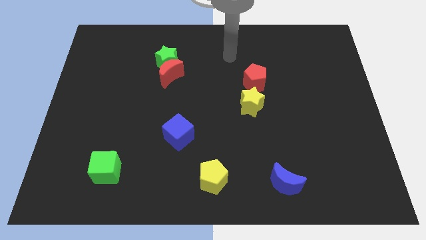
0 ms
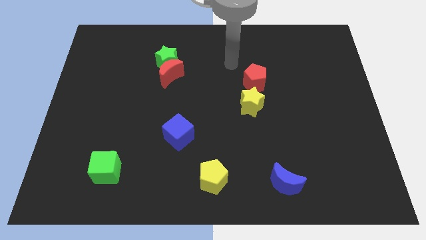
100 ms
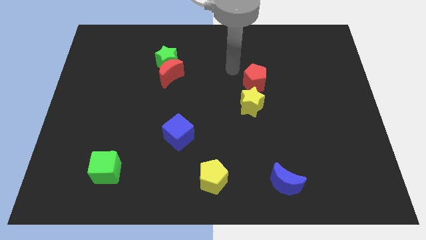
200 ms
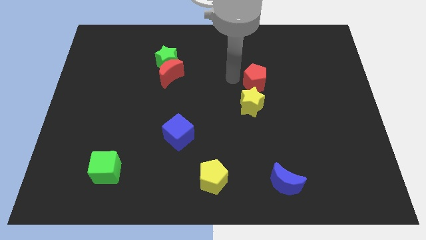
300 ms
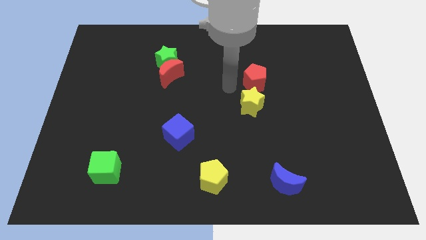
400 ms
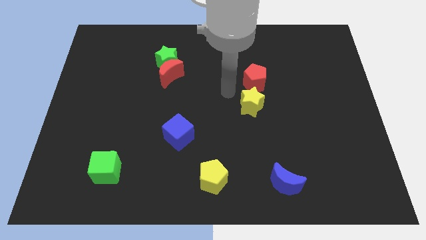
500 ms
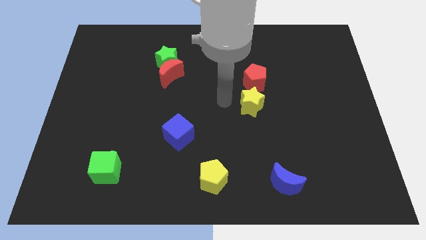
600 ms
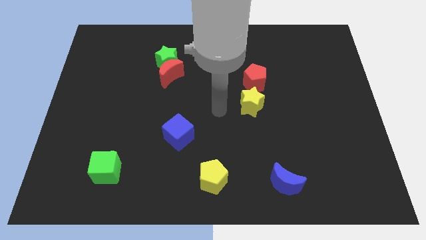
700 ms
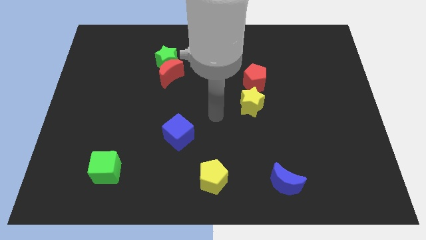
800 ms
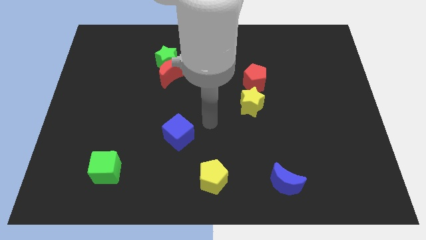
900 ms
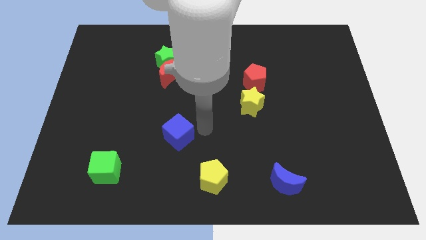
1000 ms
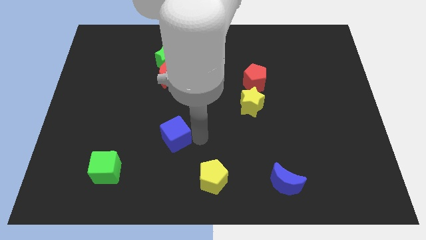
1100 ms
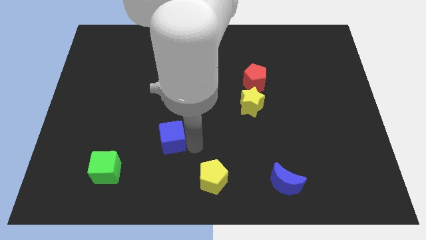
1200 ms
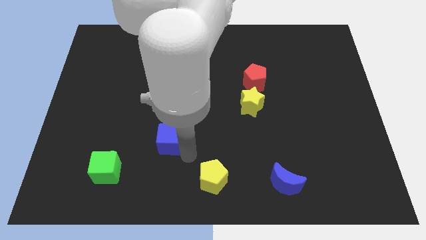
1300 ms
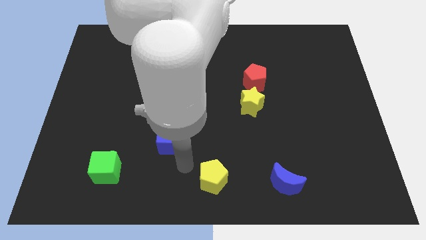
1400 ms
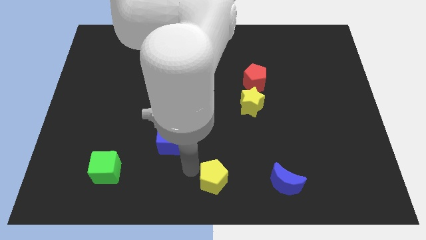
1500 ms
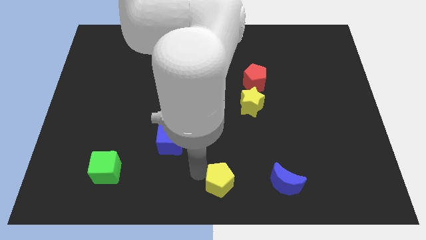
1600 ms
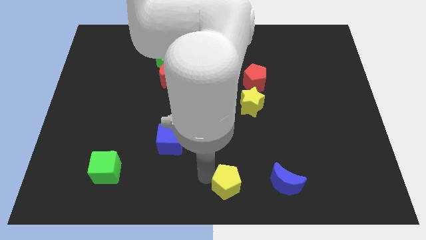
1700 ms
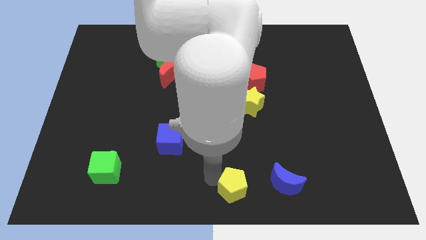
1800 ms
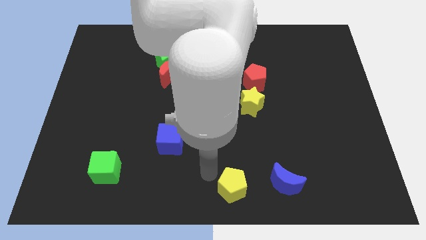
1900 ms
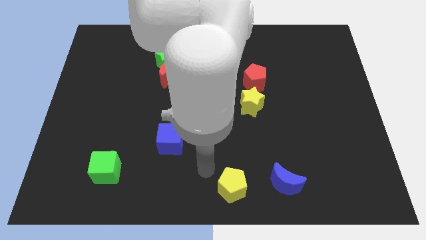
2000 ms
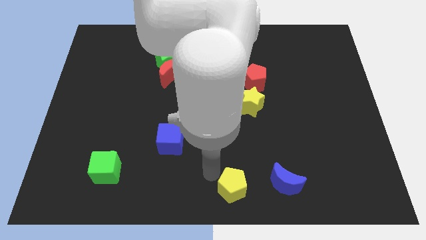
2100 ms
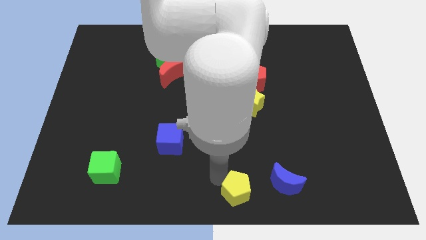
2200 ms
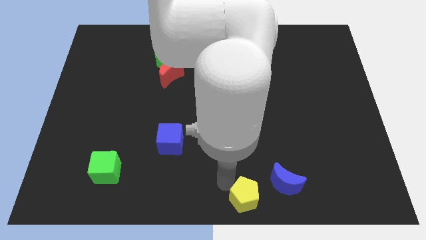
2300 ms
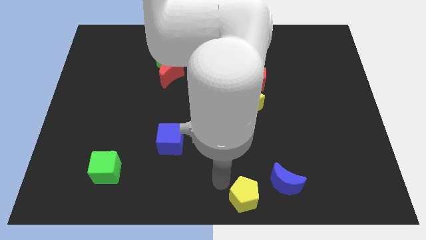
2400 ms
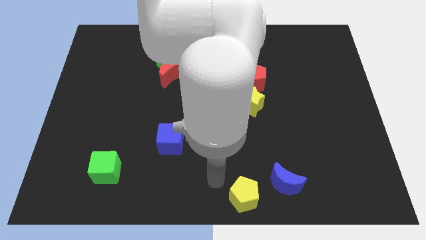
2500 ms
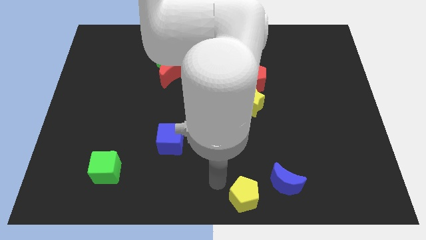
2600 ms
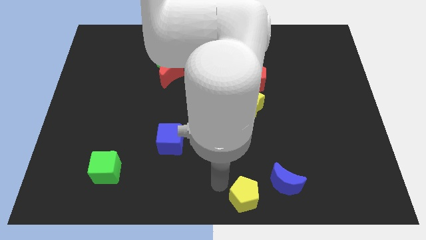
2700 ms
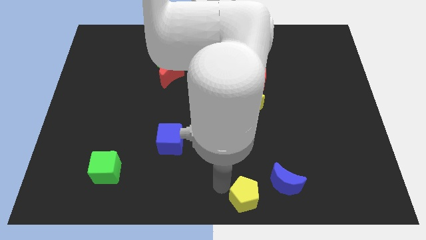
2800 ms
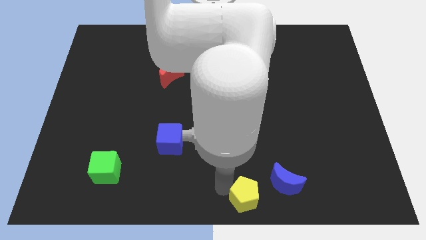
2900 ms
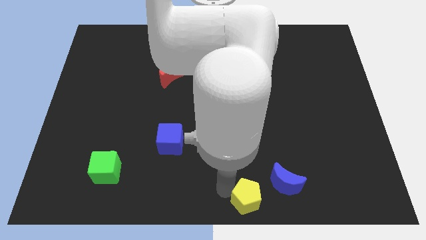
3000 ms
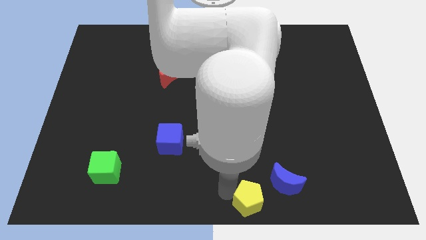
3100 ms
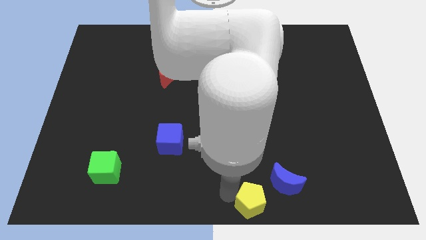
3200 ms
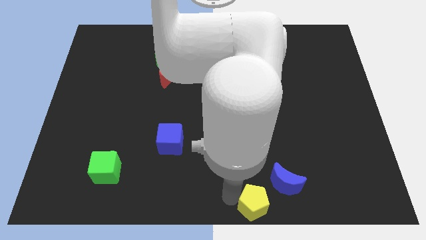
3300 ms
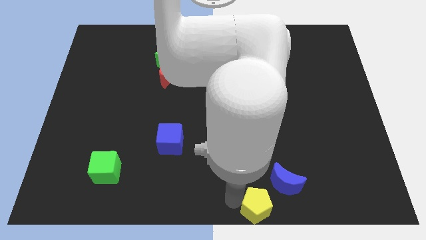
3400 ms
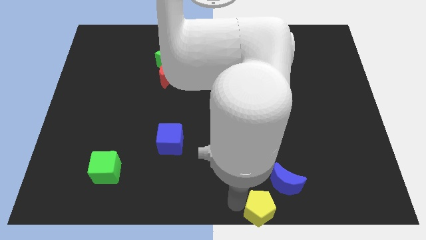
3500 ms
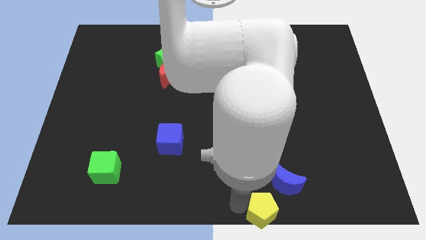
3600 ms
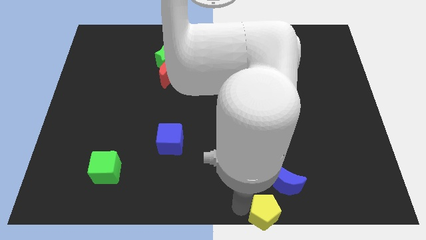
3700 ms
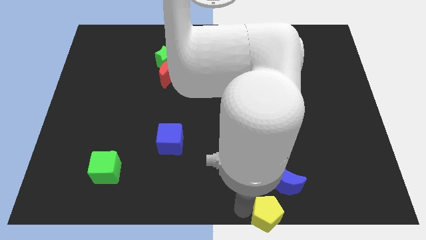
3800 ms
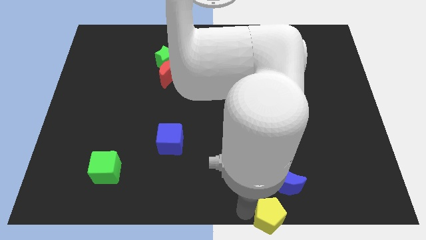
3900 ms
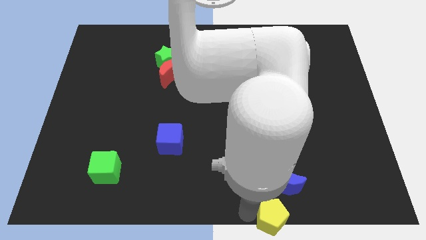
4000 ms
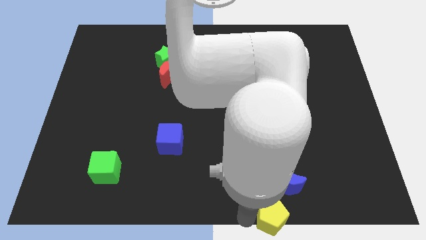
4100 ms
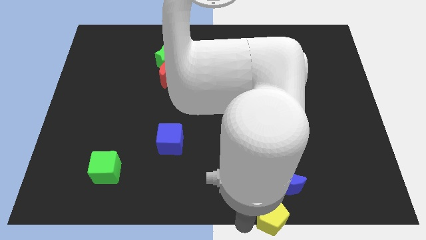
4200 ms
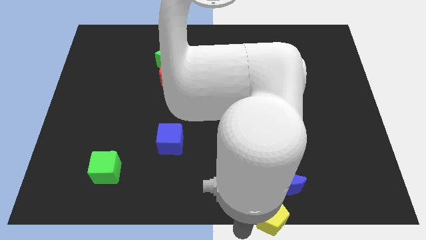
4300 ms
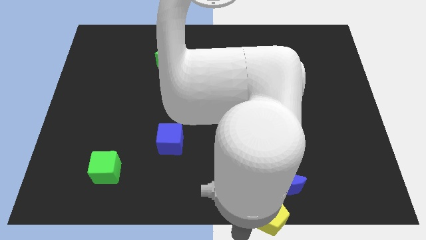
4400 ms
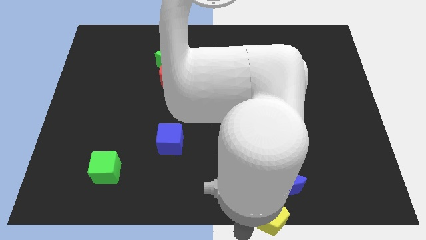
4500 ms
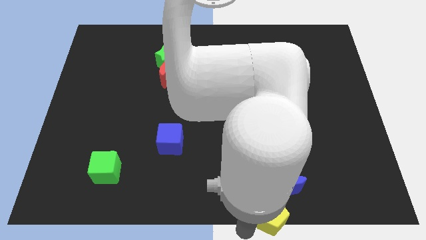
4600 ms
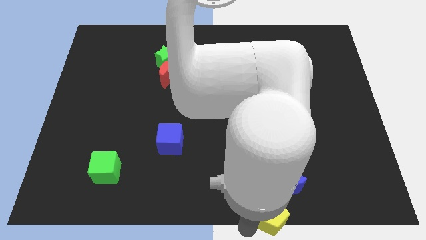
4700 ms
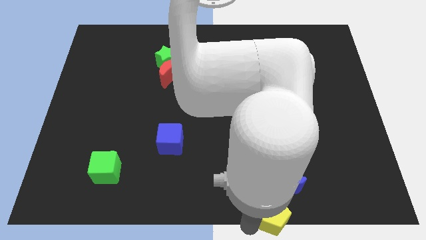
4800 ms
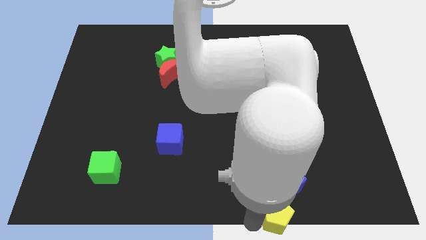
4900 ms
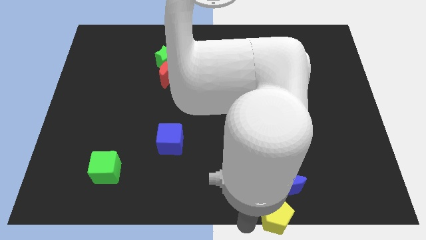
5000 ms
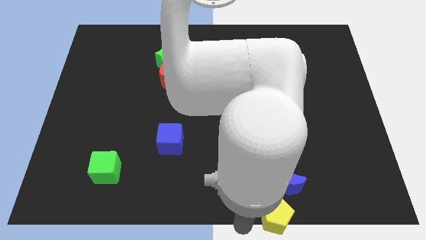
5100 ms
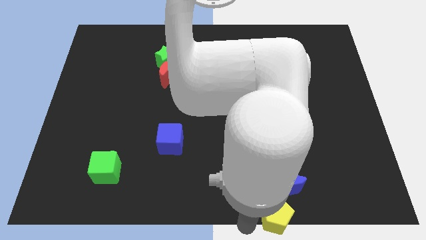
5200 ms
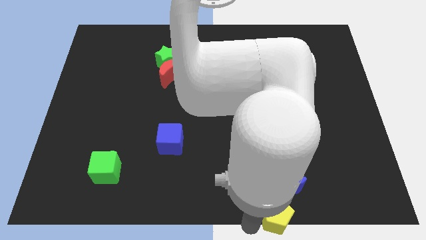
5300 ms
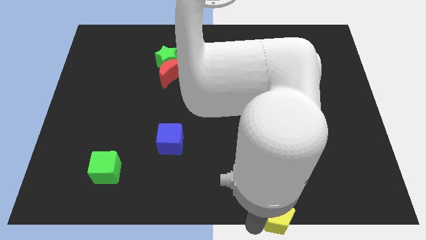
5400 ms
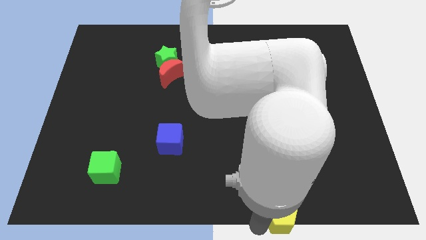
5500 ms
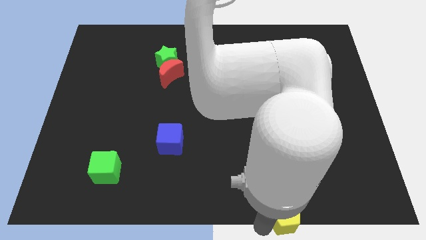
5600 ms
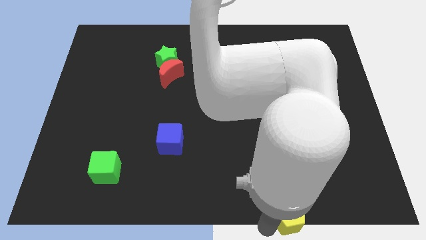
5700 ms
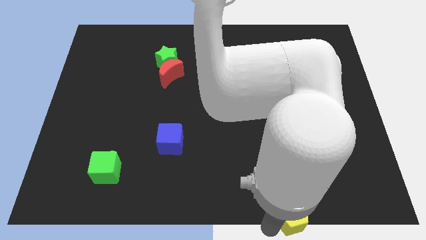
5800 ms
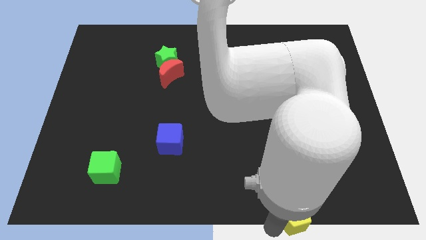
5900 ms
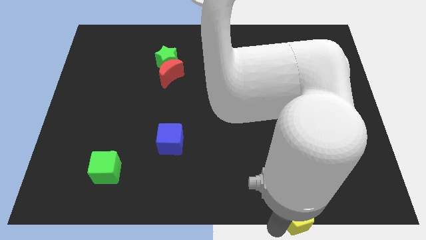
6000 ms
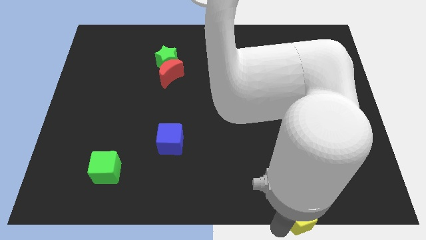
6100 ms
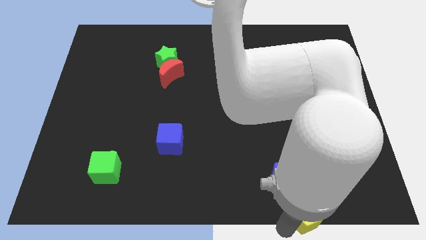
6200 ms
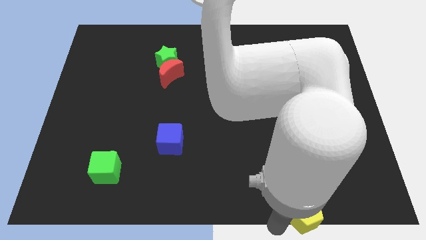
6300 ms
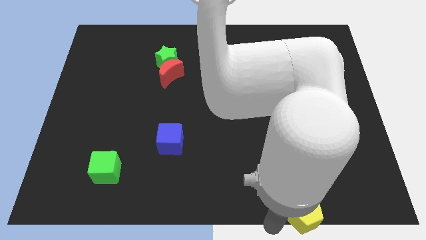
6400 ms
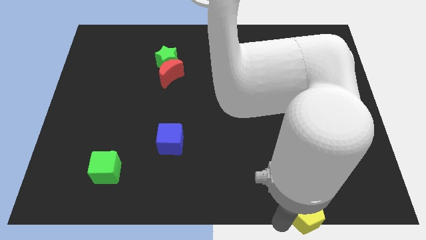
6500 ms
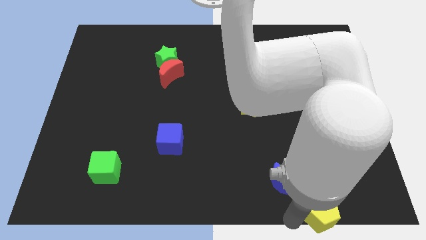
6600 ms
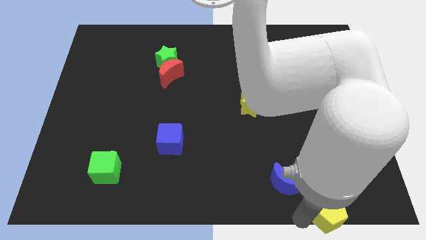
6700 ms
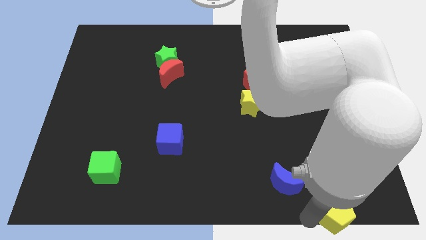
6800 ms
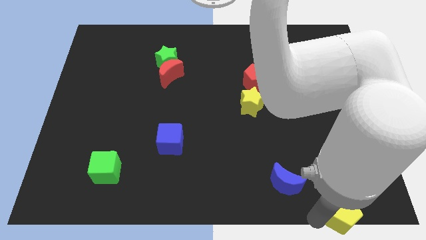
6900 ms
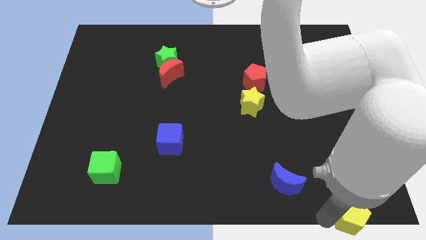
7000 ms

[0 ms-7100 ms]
push the yellow pentagon to the bottom right of the board
